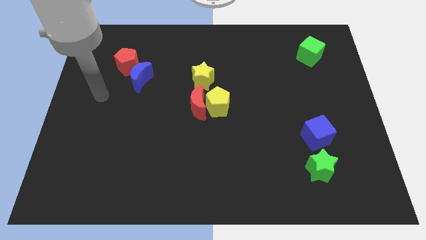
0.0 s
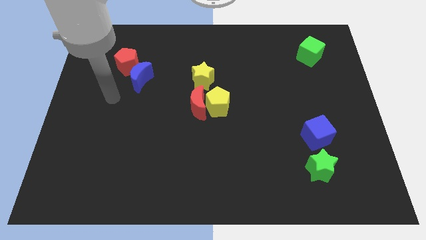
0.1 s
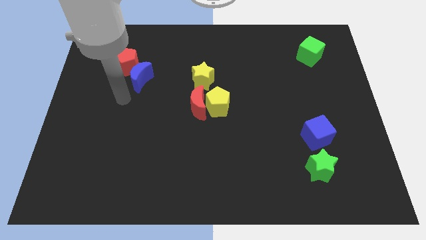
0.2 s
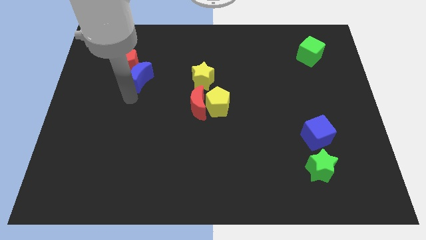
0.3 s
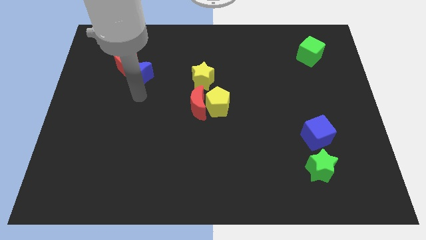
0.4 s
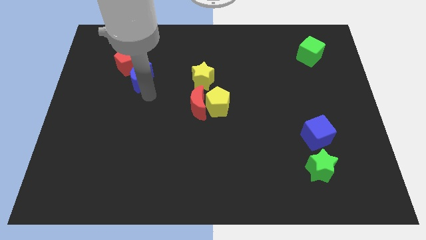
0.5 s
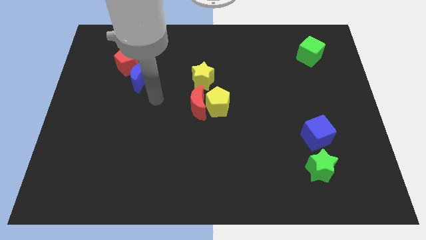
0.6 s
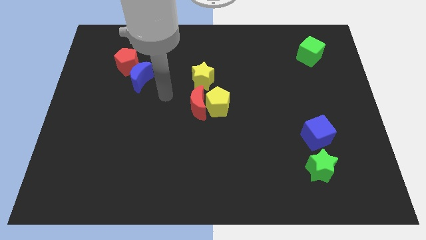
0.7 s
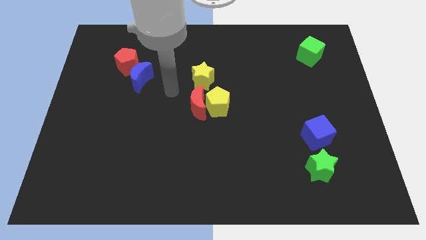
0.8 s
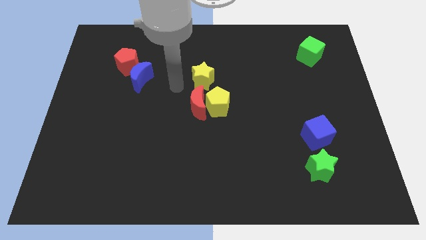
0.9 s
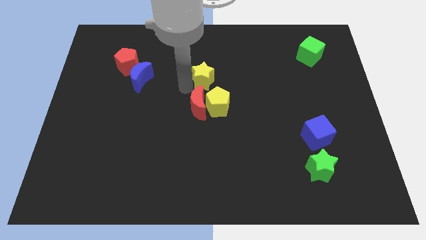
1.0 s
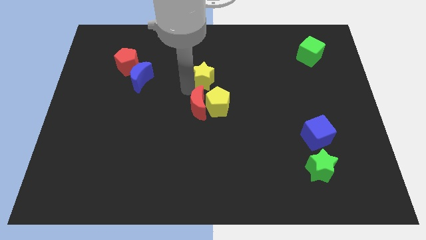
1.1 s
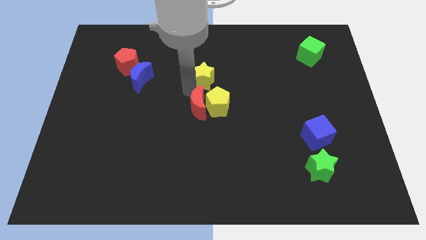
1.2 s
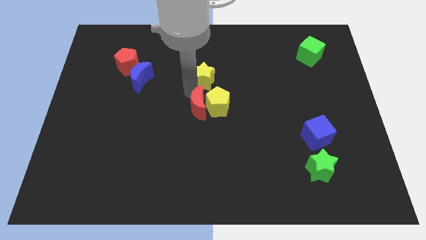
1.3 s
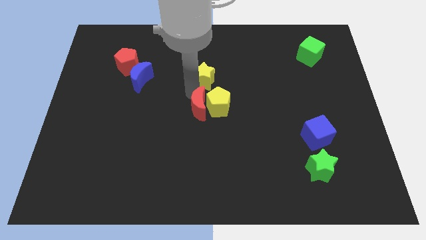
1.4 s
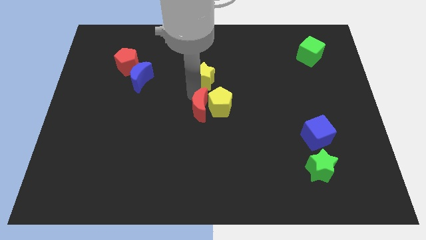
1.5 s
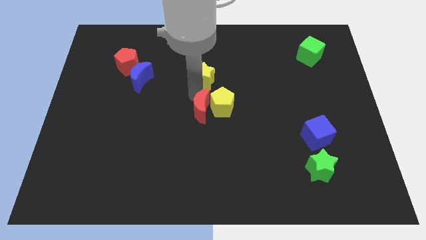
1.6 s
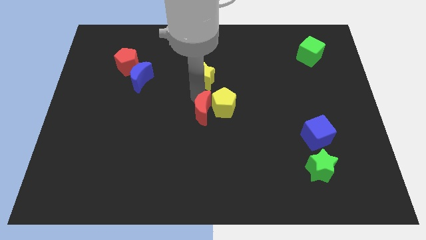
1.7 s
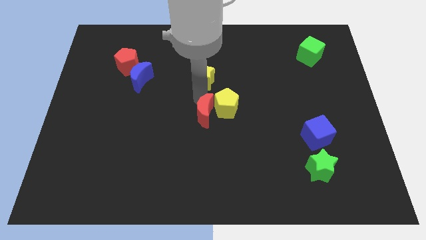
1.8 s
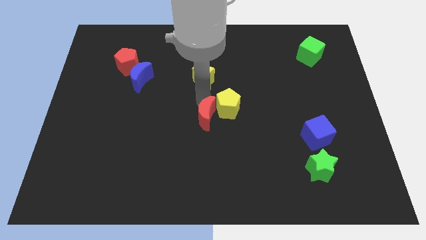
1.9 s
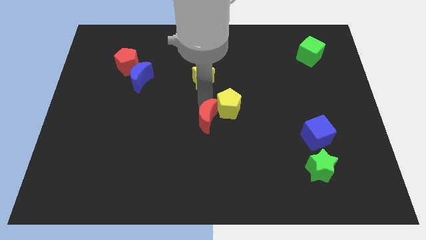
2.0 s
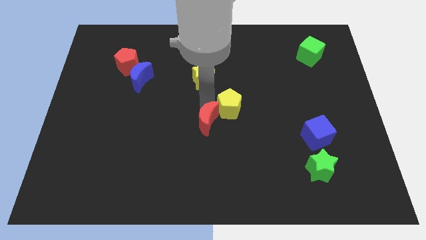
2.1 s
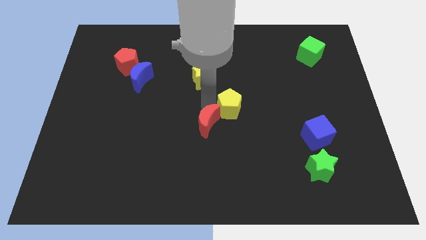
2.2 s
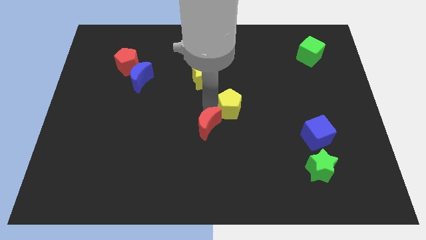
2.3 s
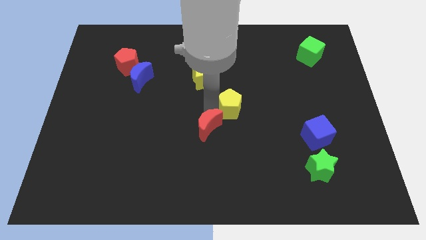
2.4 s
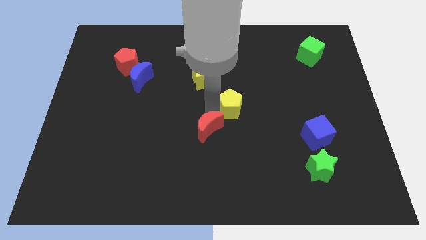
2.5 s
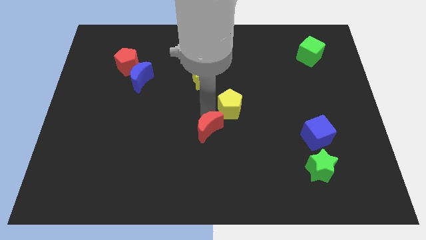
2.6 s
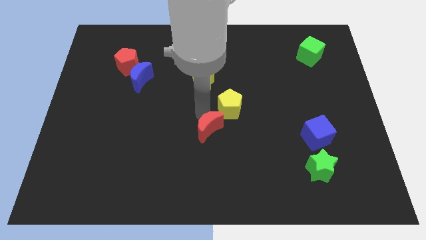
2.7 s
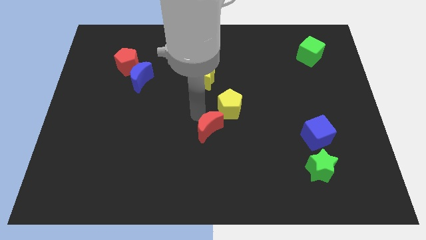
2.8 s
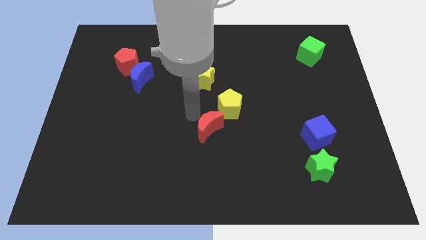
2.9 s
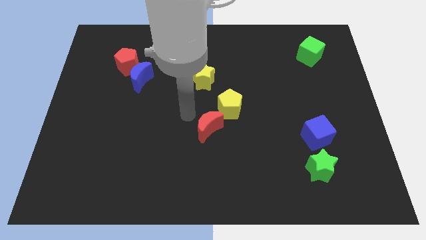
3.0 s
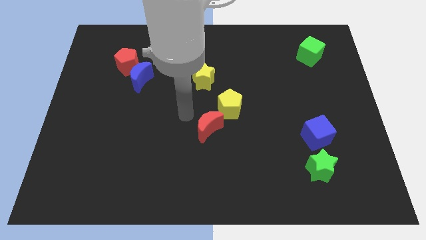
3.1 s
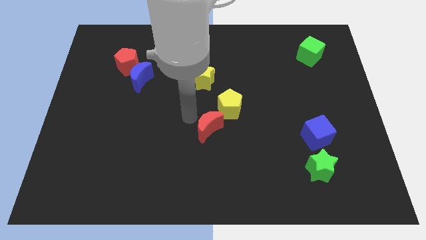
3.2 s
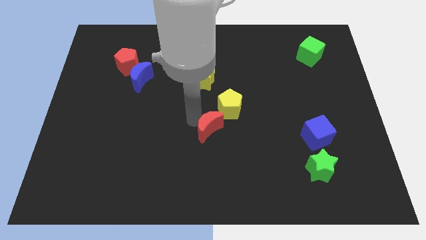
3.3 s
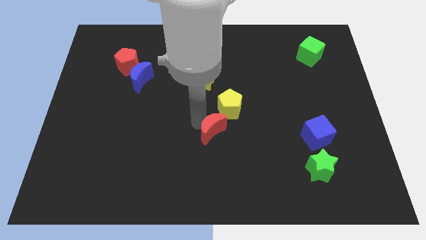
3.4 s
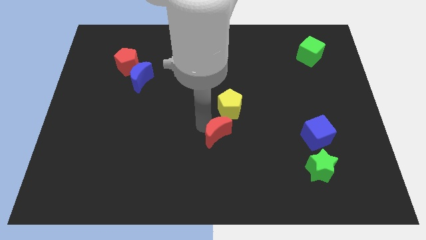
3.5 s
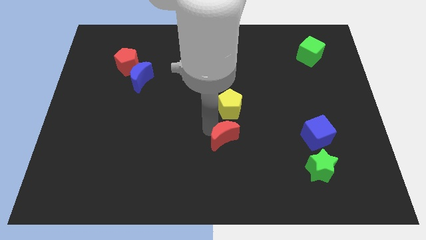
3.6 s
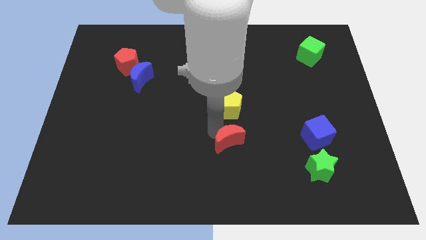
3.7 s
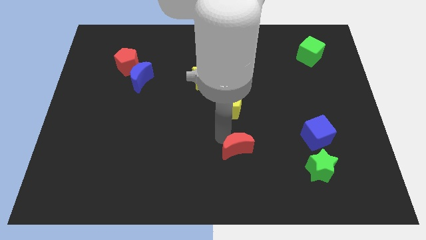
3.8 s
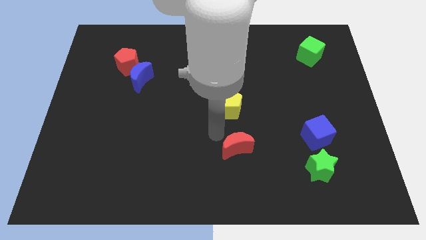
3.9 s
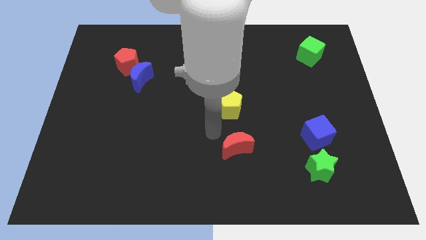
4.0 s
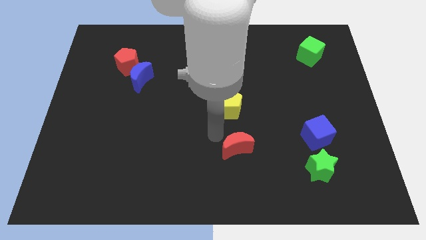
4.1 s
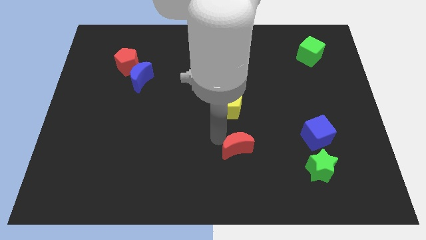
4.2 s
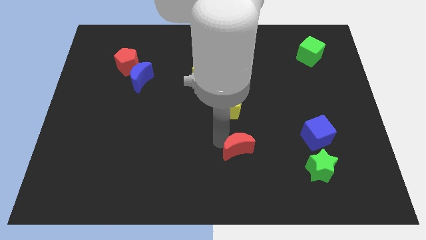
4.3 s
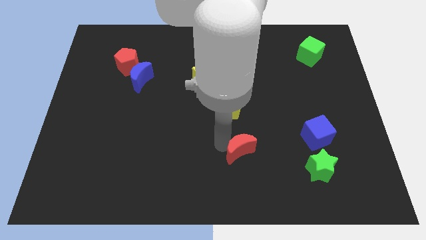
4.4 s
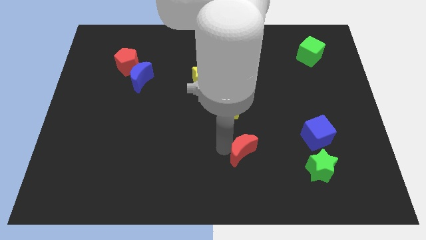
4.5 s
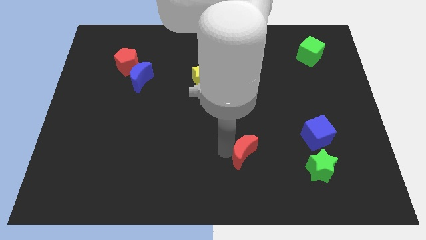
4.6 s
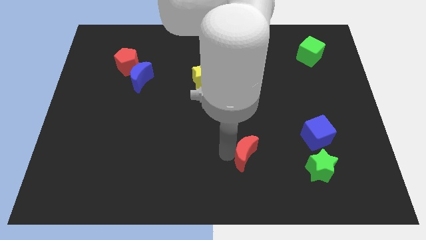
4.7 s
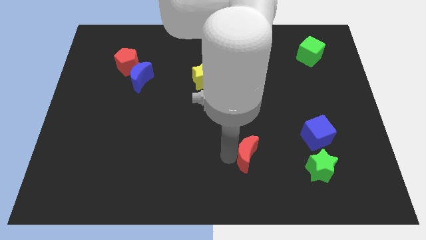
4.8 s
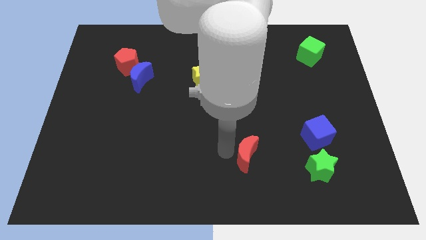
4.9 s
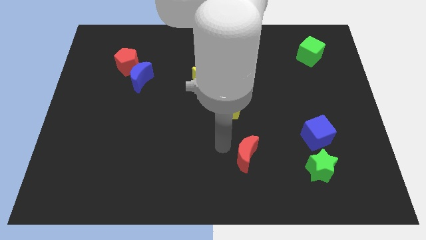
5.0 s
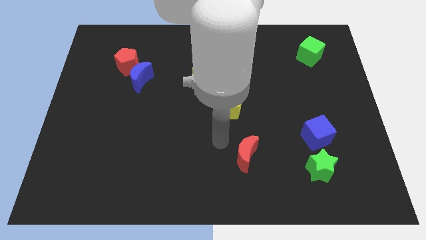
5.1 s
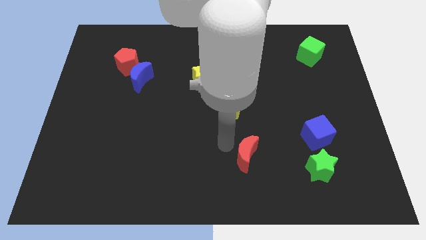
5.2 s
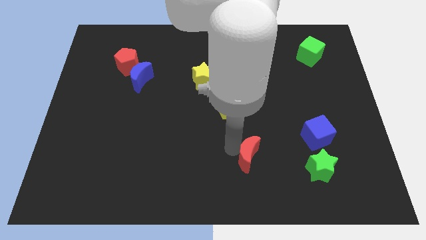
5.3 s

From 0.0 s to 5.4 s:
move the red moon just left of the green star

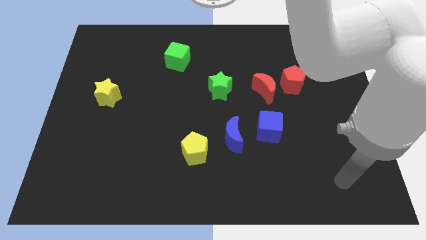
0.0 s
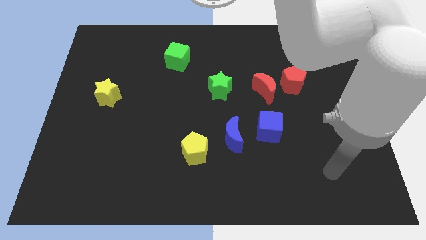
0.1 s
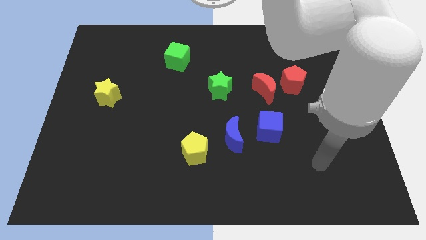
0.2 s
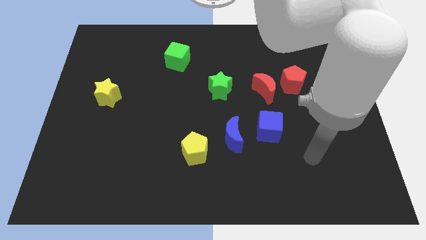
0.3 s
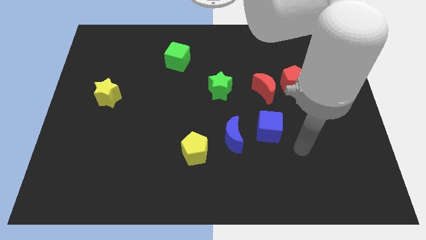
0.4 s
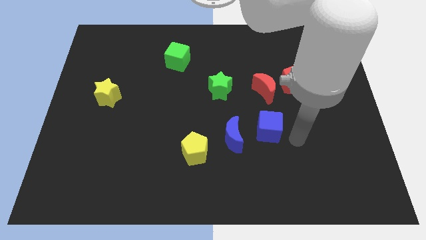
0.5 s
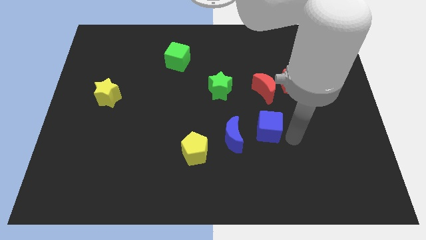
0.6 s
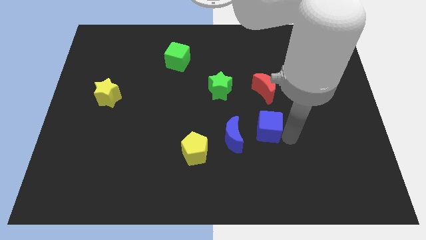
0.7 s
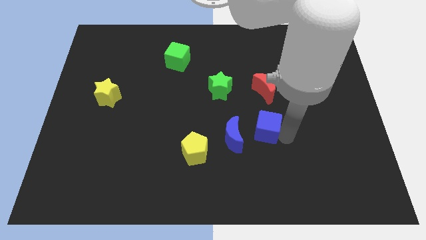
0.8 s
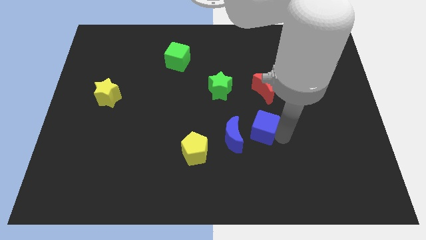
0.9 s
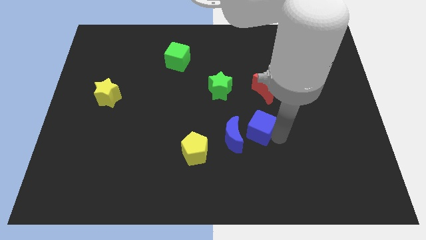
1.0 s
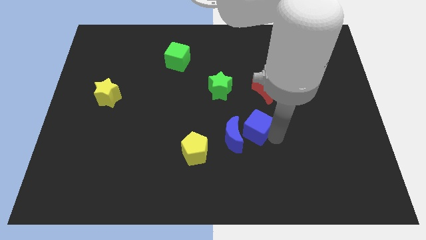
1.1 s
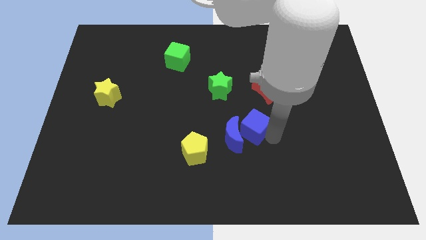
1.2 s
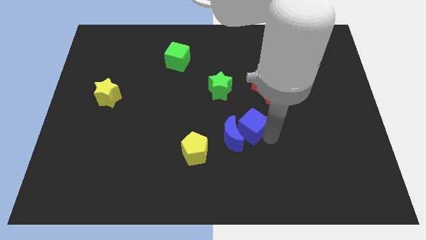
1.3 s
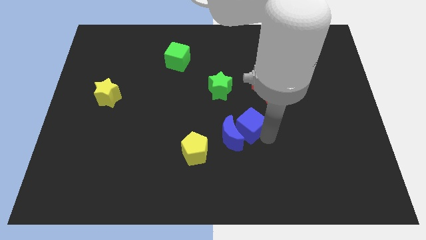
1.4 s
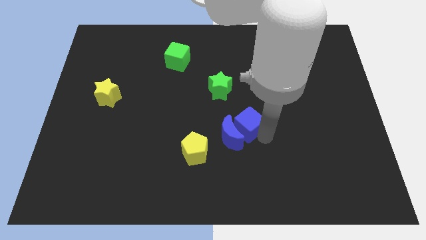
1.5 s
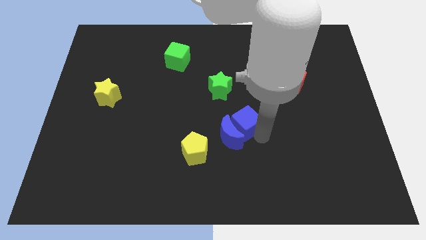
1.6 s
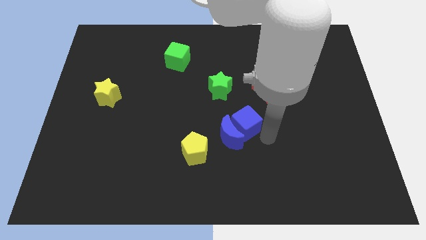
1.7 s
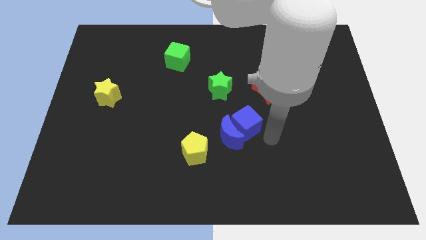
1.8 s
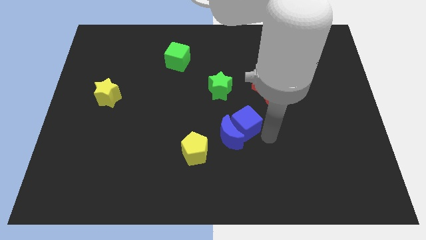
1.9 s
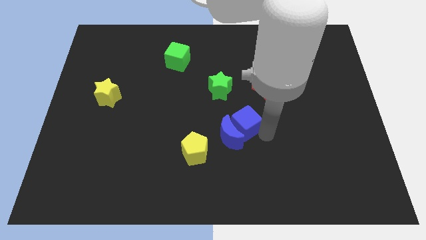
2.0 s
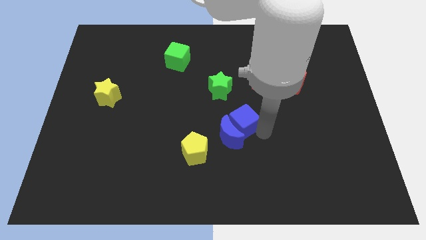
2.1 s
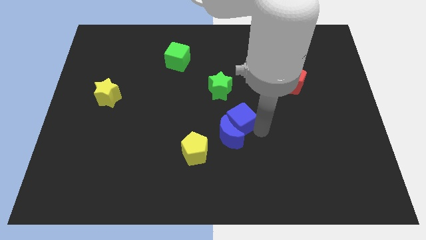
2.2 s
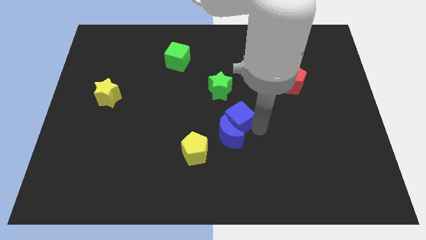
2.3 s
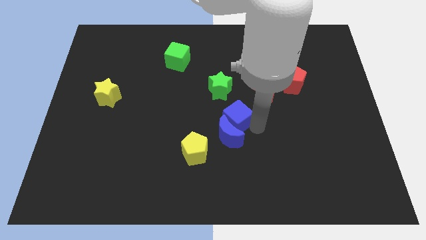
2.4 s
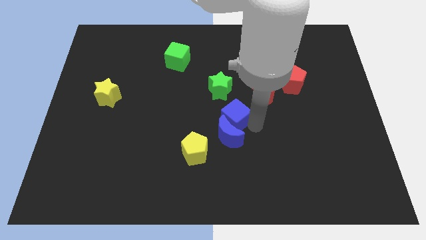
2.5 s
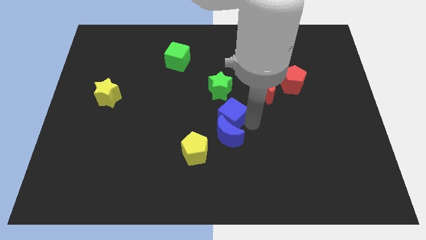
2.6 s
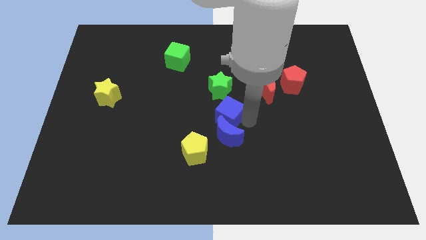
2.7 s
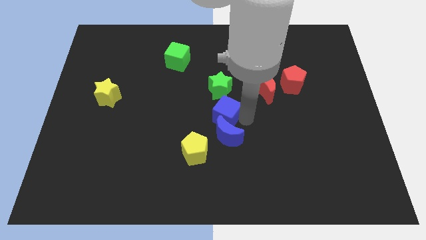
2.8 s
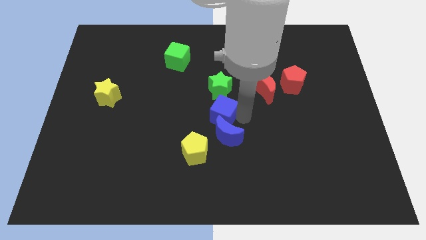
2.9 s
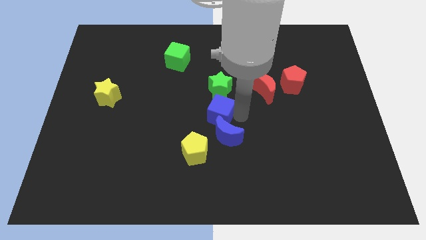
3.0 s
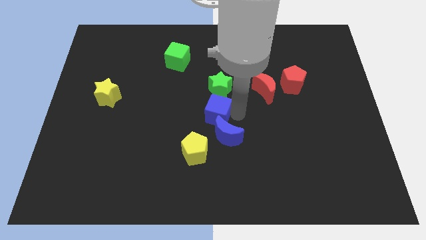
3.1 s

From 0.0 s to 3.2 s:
move the blue cube to the top of the yellow pentagon
